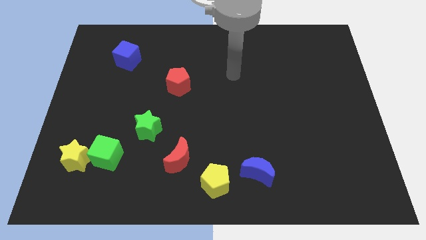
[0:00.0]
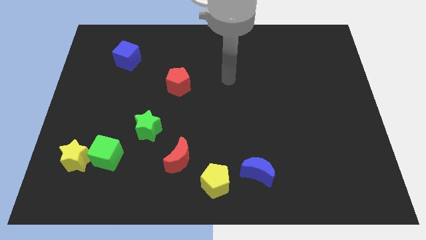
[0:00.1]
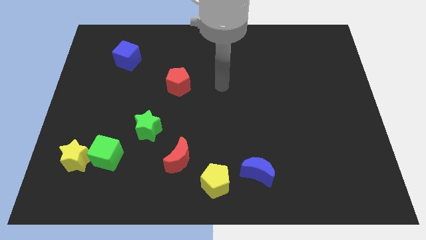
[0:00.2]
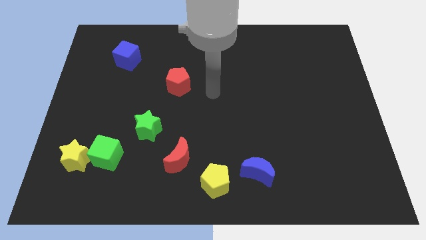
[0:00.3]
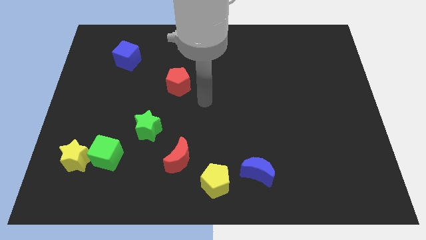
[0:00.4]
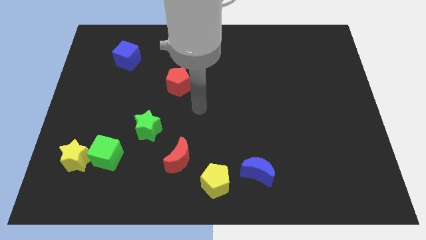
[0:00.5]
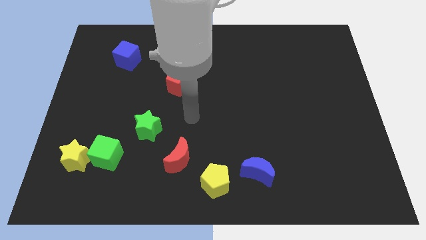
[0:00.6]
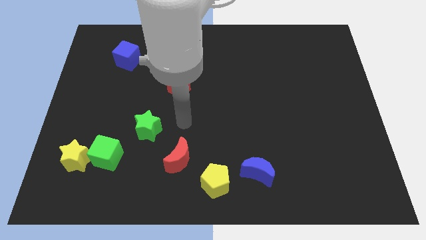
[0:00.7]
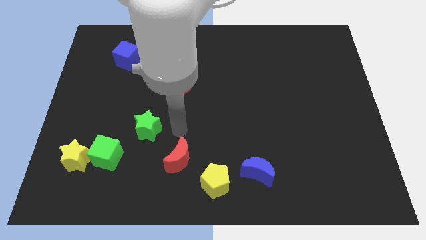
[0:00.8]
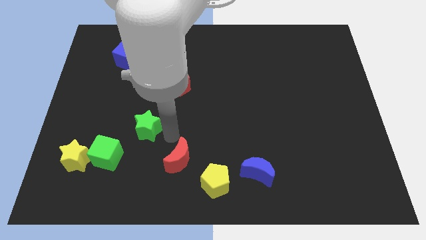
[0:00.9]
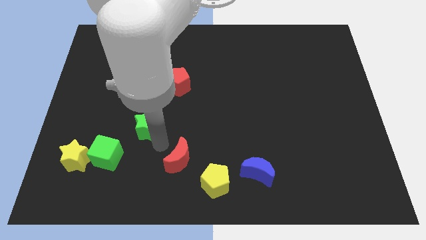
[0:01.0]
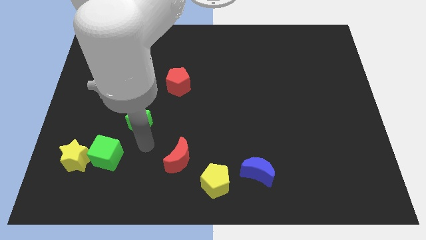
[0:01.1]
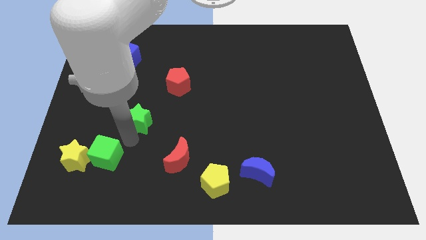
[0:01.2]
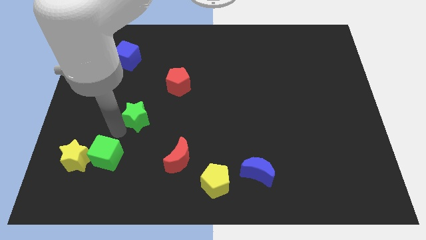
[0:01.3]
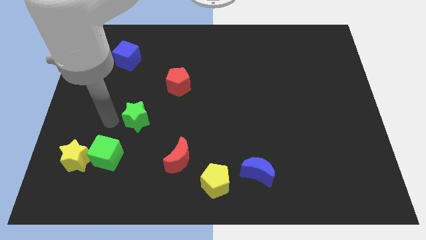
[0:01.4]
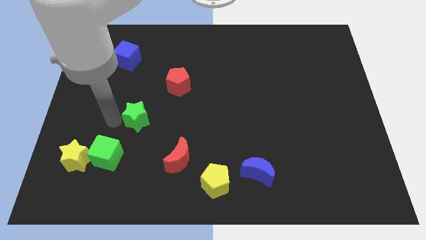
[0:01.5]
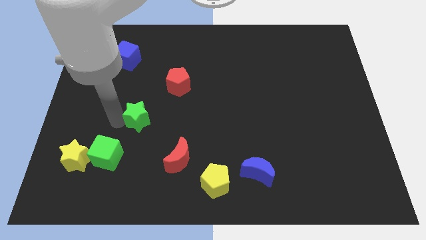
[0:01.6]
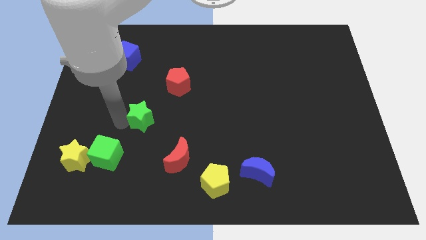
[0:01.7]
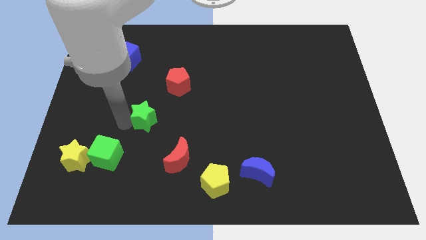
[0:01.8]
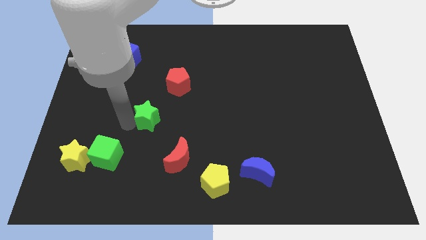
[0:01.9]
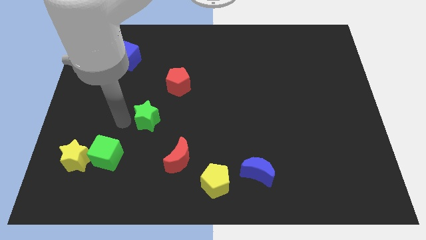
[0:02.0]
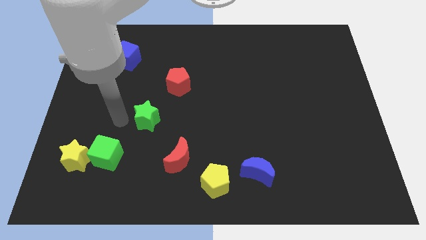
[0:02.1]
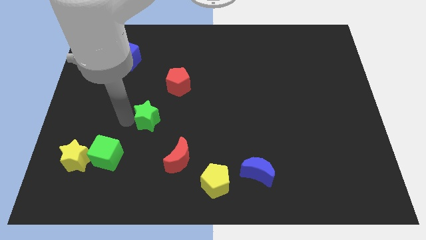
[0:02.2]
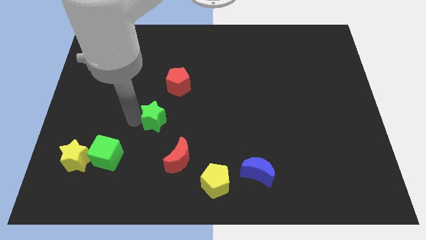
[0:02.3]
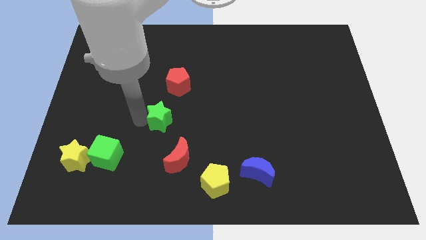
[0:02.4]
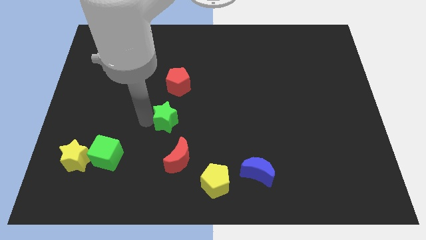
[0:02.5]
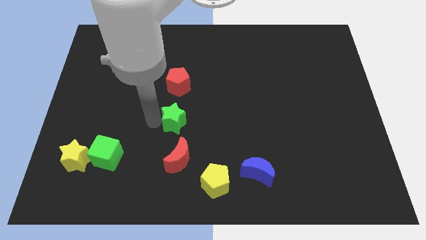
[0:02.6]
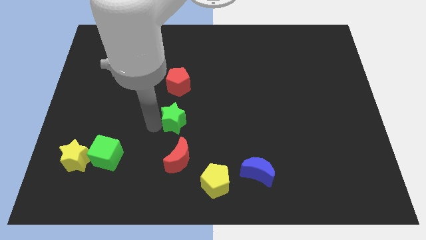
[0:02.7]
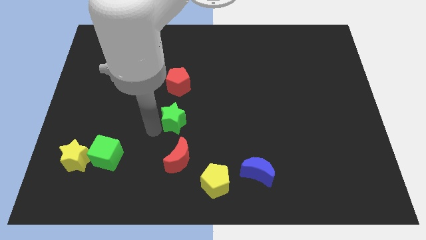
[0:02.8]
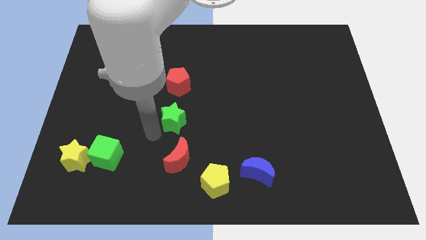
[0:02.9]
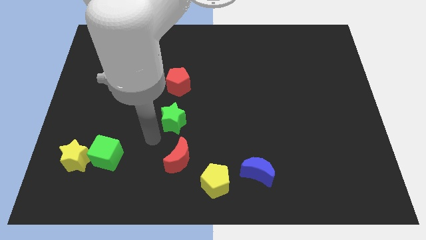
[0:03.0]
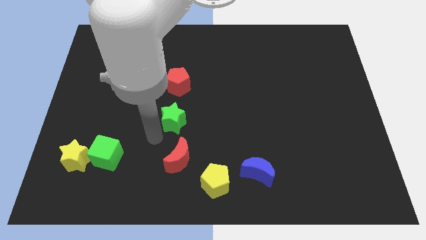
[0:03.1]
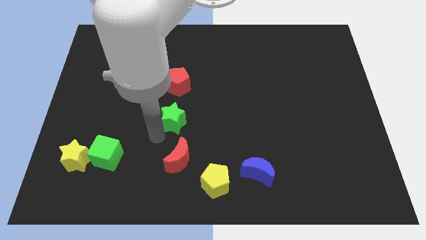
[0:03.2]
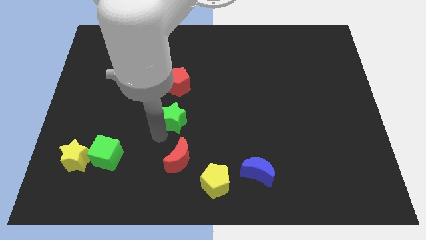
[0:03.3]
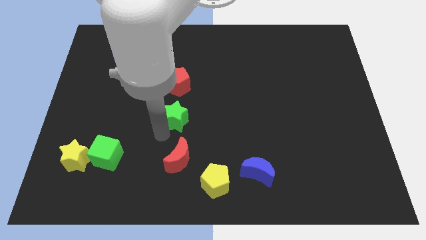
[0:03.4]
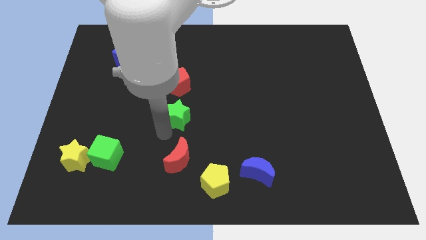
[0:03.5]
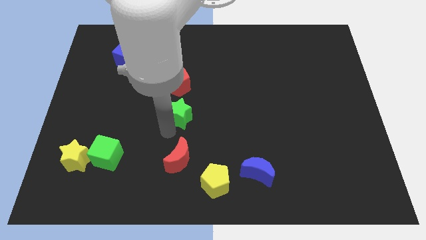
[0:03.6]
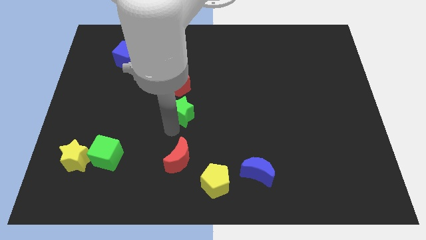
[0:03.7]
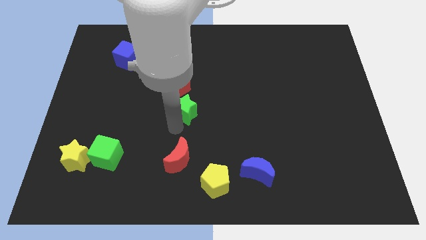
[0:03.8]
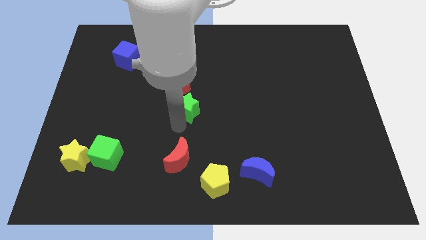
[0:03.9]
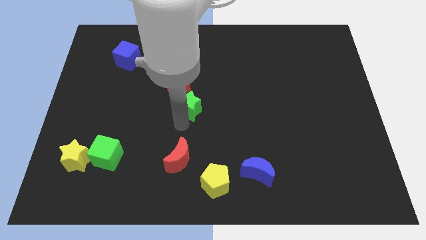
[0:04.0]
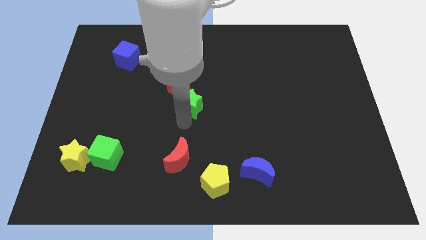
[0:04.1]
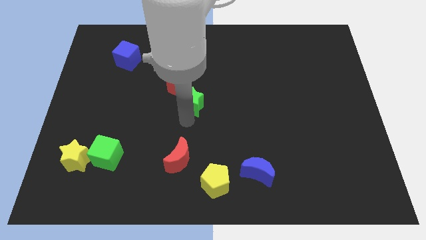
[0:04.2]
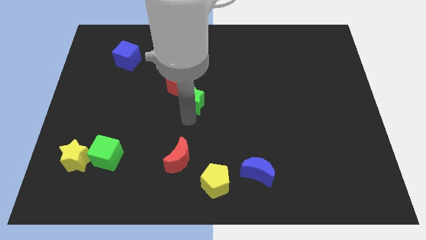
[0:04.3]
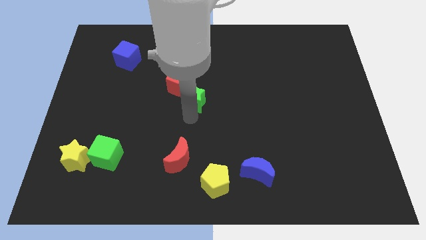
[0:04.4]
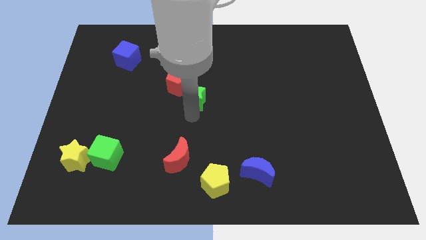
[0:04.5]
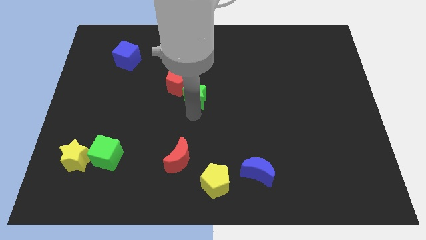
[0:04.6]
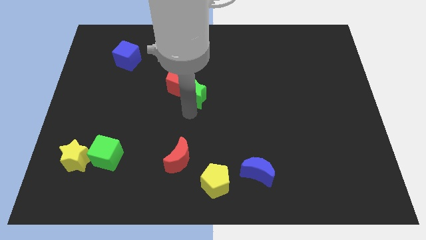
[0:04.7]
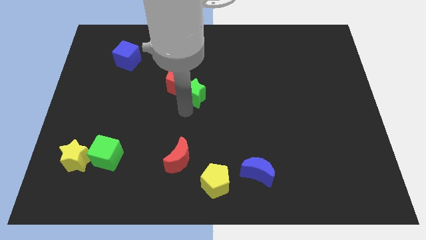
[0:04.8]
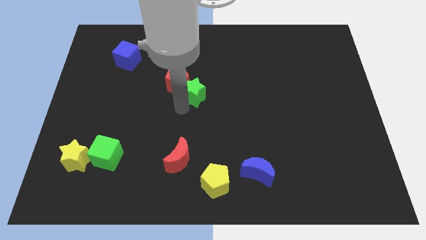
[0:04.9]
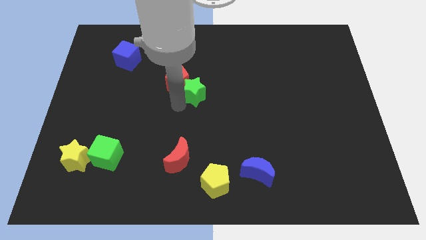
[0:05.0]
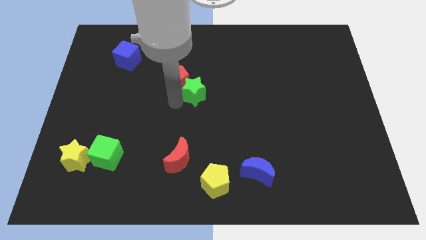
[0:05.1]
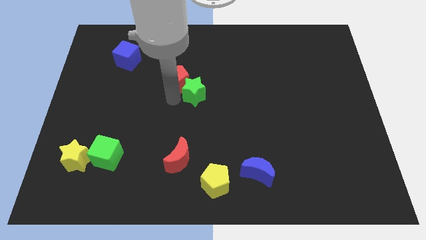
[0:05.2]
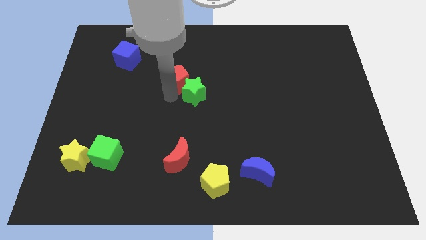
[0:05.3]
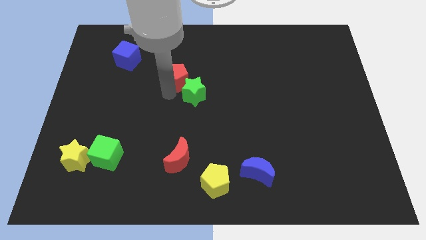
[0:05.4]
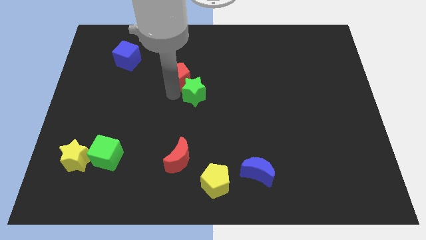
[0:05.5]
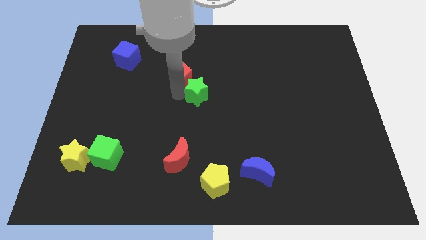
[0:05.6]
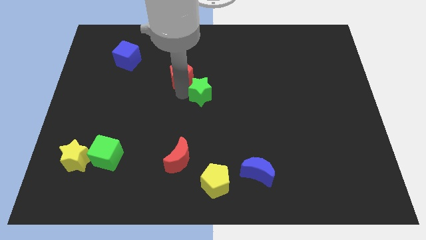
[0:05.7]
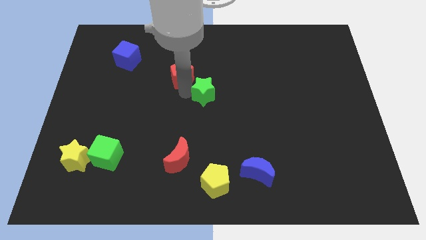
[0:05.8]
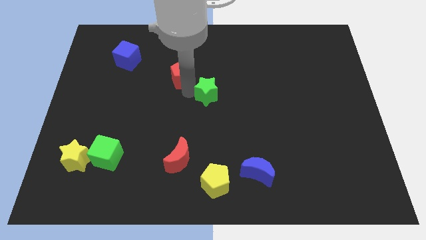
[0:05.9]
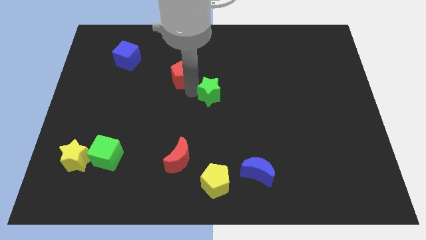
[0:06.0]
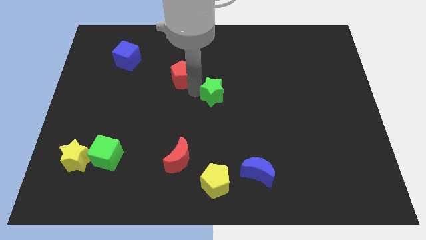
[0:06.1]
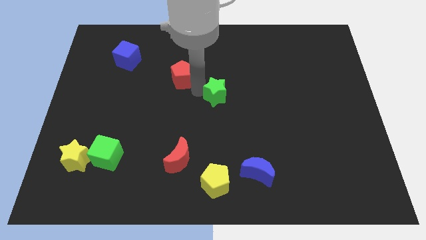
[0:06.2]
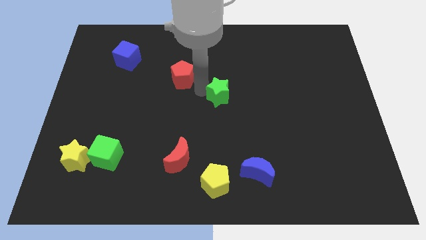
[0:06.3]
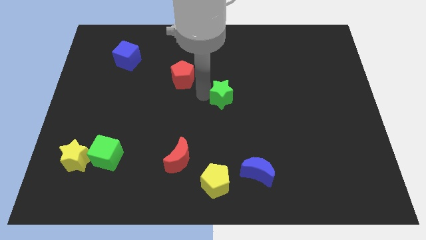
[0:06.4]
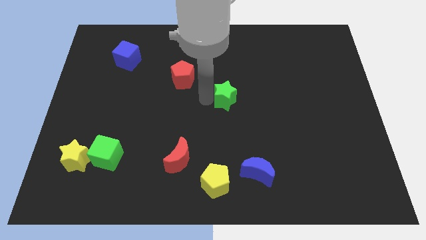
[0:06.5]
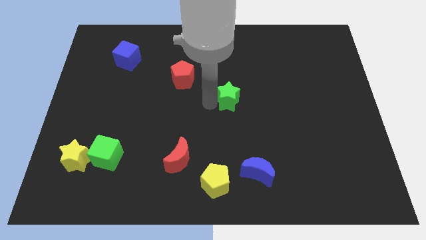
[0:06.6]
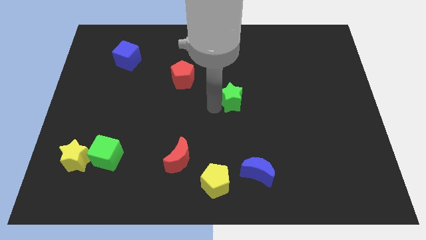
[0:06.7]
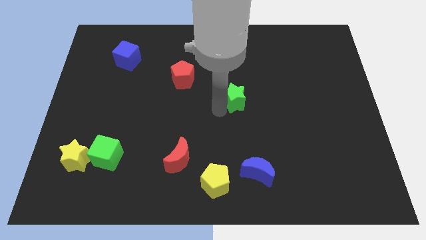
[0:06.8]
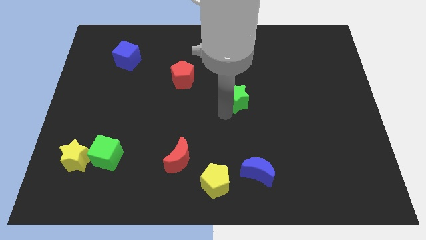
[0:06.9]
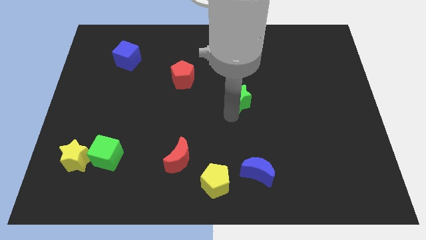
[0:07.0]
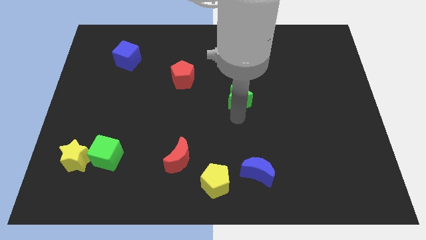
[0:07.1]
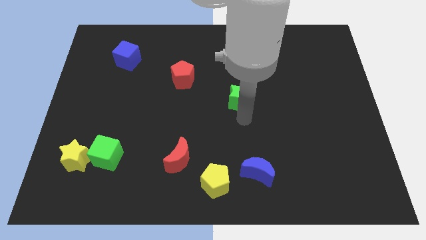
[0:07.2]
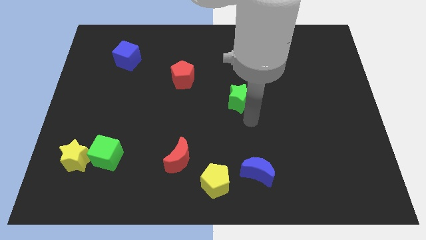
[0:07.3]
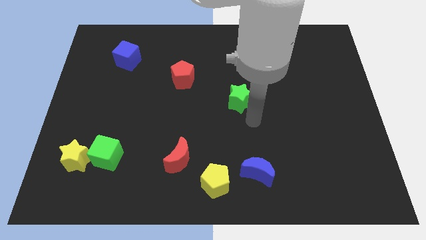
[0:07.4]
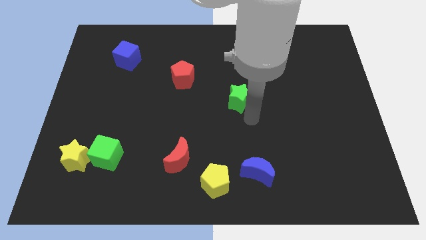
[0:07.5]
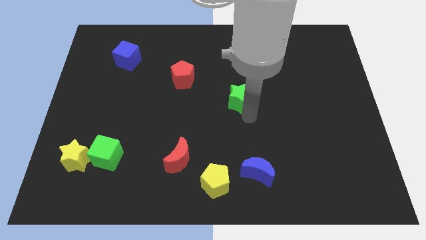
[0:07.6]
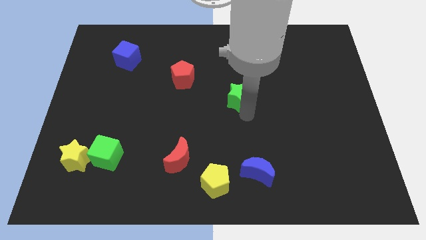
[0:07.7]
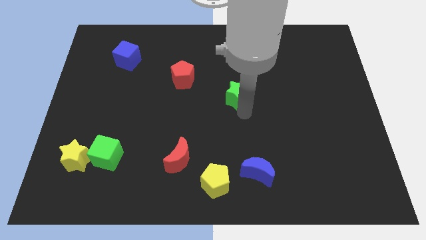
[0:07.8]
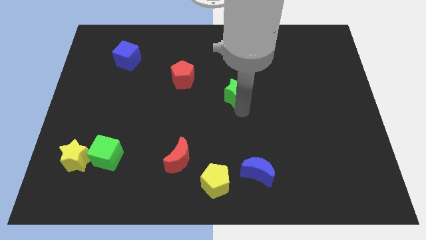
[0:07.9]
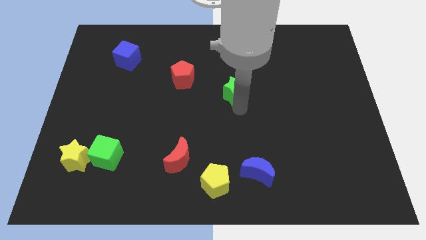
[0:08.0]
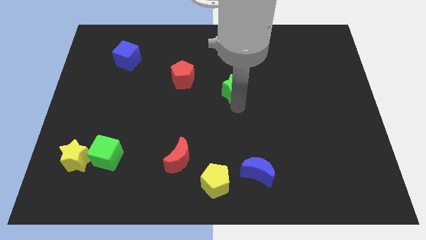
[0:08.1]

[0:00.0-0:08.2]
slide the green star upwards and then right
